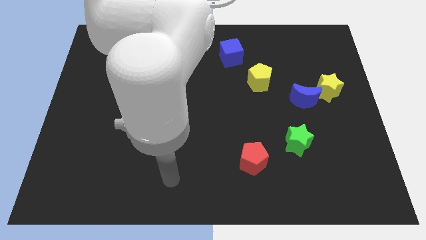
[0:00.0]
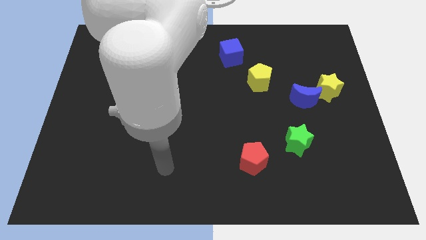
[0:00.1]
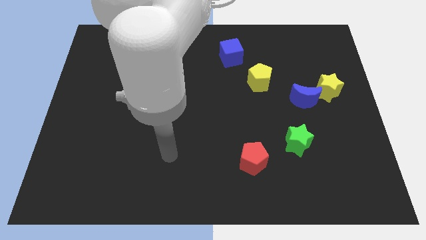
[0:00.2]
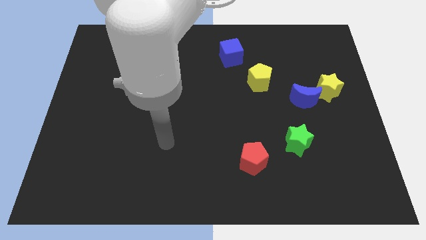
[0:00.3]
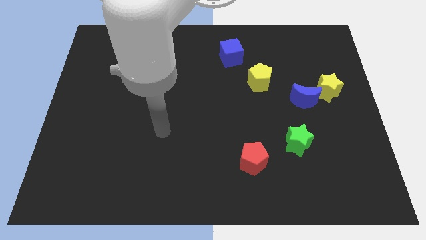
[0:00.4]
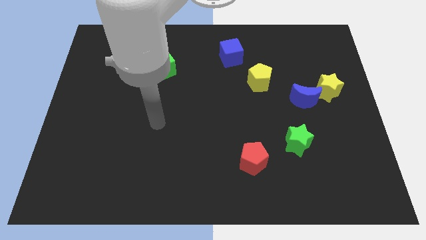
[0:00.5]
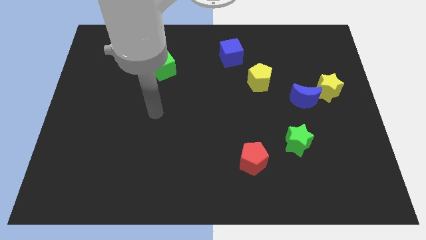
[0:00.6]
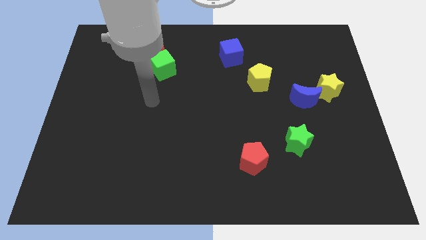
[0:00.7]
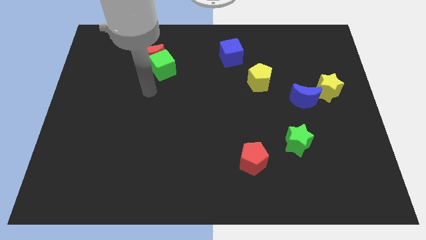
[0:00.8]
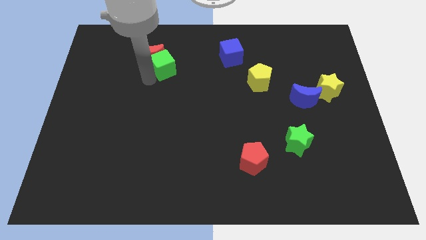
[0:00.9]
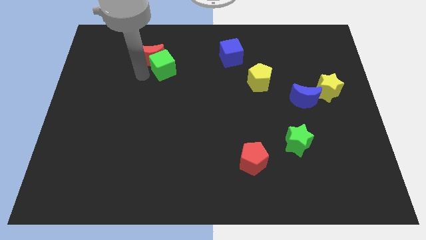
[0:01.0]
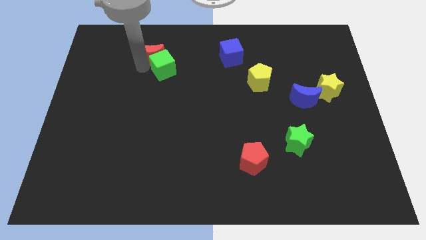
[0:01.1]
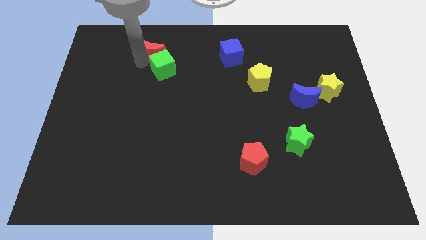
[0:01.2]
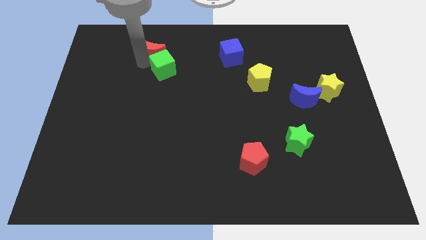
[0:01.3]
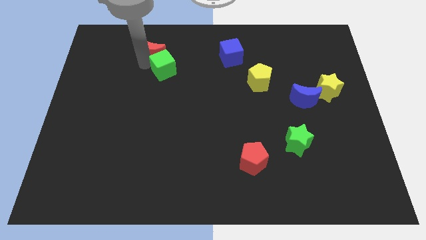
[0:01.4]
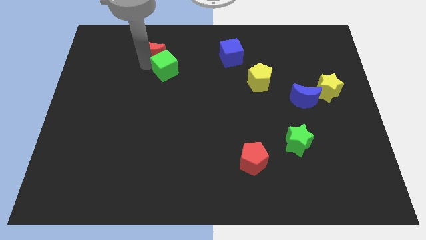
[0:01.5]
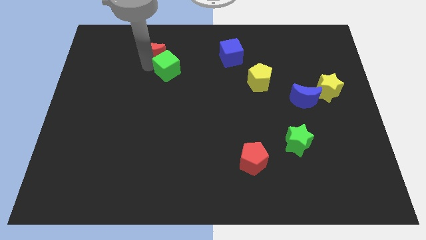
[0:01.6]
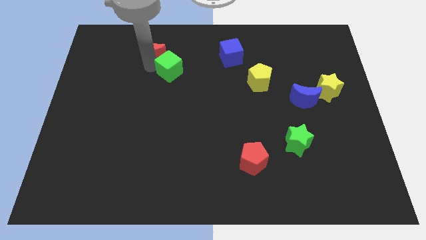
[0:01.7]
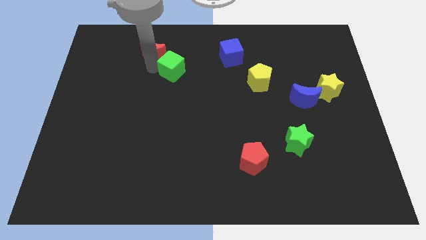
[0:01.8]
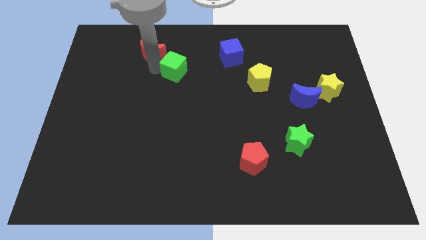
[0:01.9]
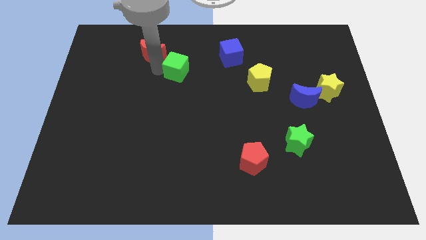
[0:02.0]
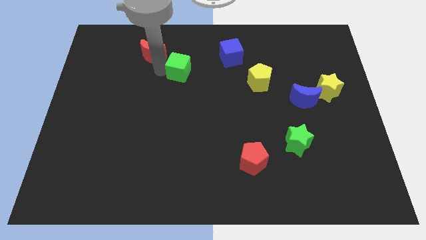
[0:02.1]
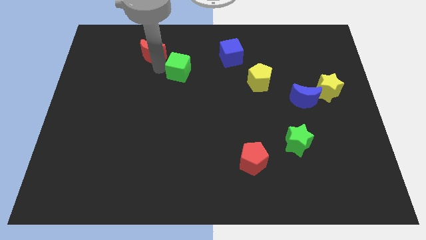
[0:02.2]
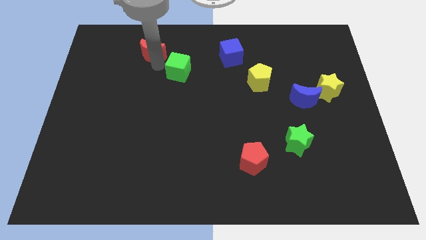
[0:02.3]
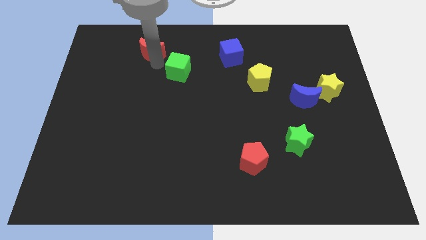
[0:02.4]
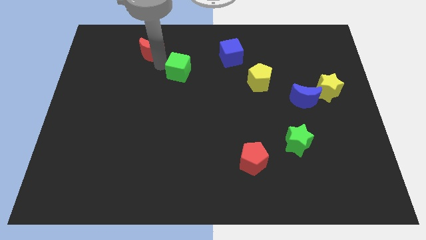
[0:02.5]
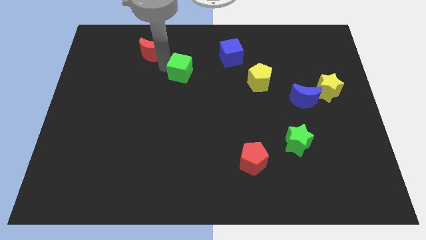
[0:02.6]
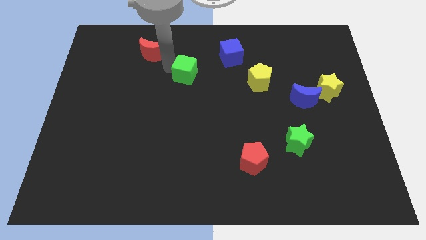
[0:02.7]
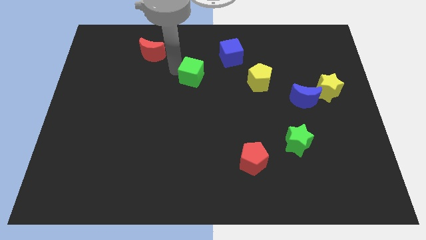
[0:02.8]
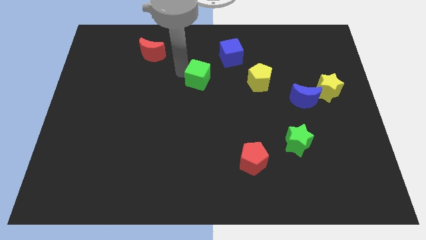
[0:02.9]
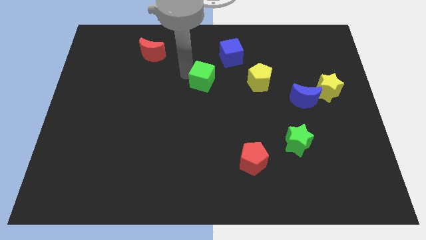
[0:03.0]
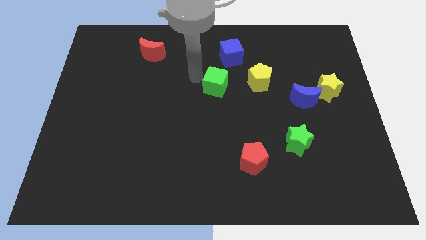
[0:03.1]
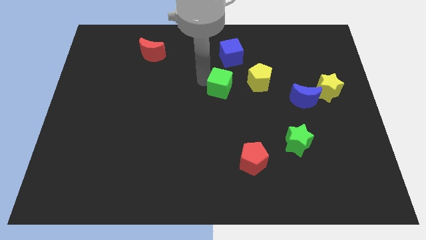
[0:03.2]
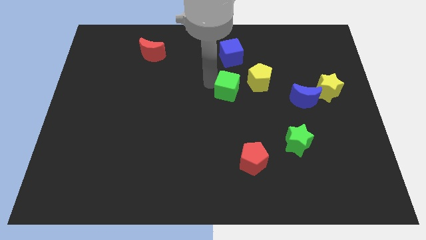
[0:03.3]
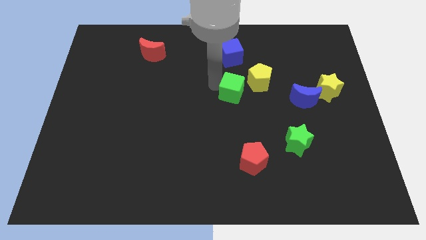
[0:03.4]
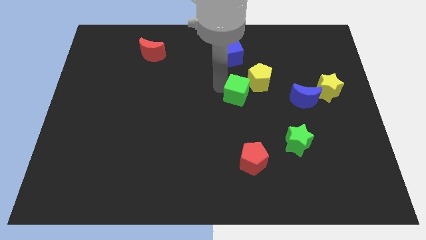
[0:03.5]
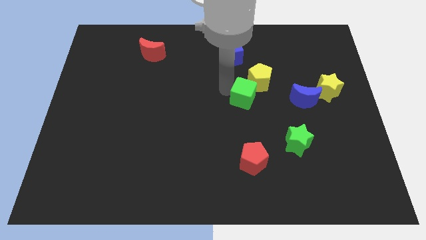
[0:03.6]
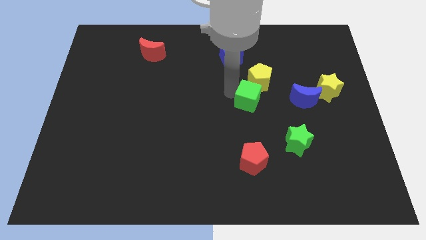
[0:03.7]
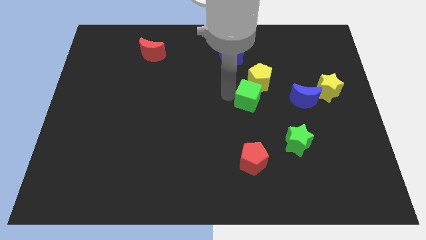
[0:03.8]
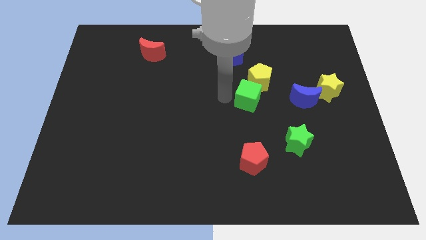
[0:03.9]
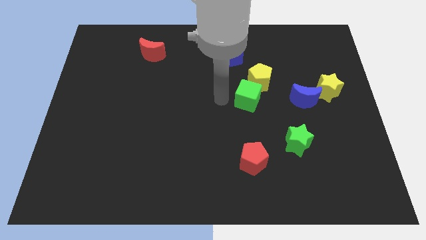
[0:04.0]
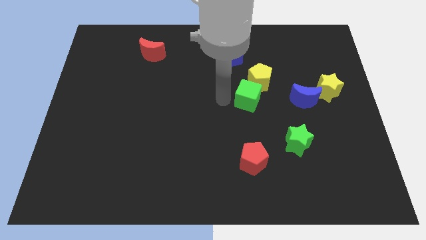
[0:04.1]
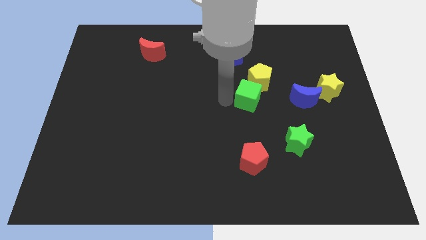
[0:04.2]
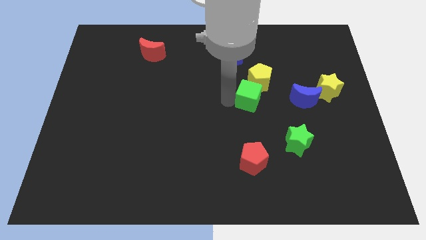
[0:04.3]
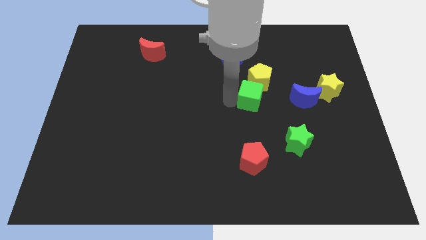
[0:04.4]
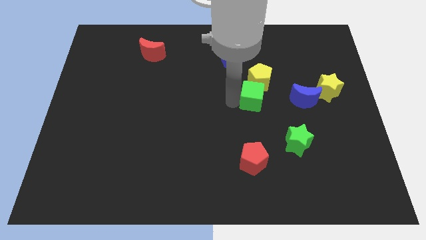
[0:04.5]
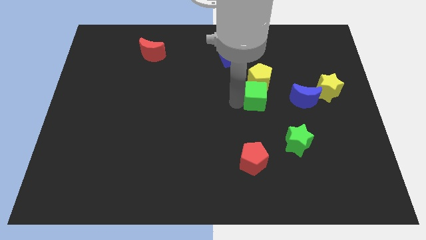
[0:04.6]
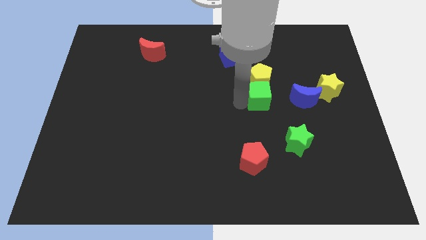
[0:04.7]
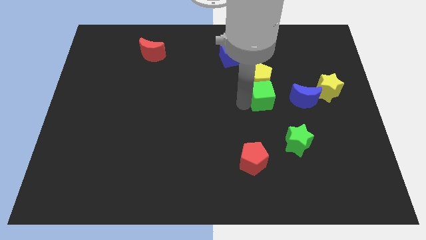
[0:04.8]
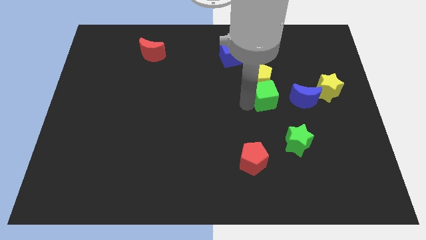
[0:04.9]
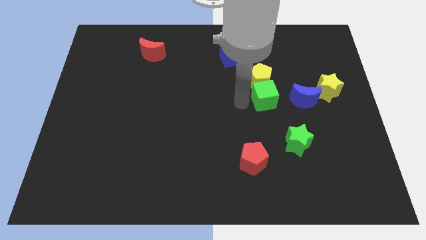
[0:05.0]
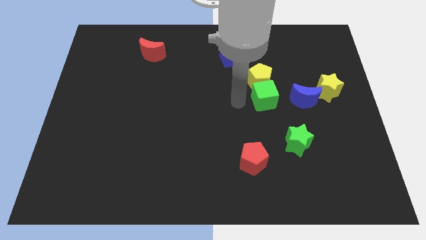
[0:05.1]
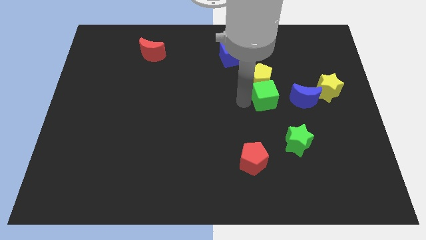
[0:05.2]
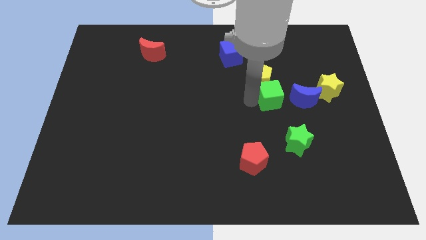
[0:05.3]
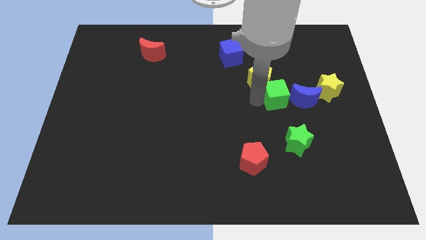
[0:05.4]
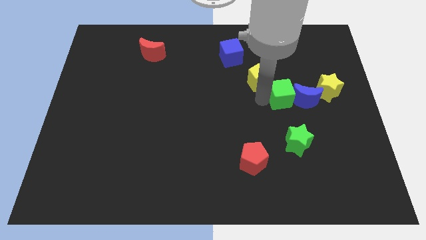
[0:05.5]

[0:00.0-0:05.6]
push the green cube to the blue moon

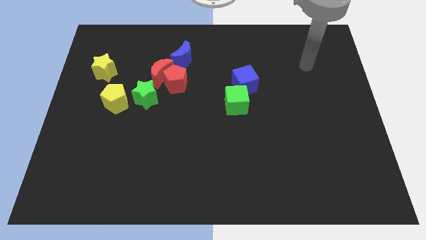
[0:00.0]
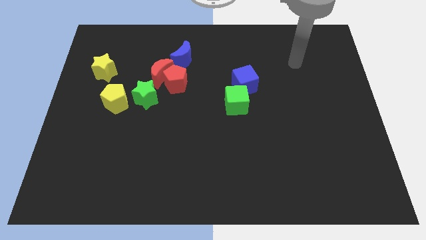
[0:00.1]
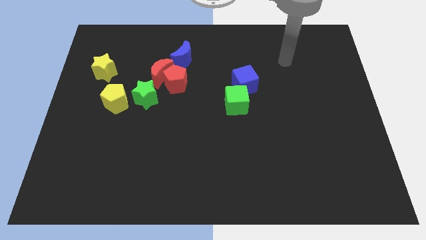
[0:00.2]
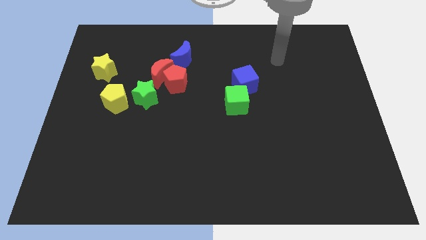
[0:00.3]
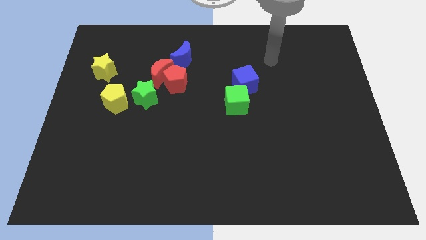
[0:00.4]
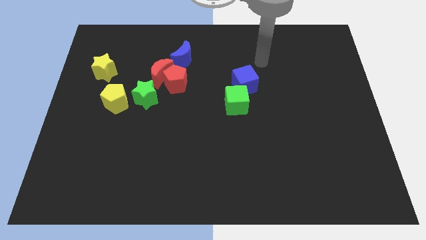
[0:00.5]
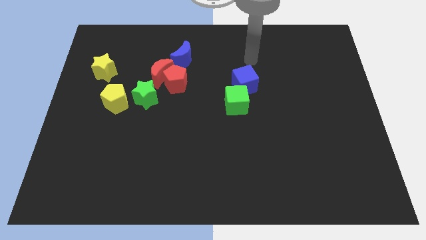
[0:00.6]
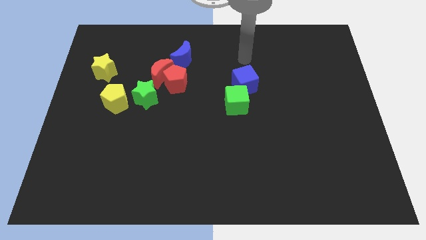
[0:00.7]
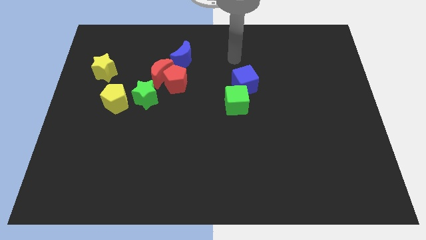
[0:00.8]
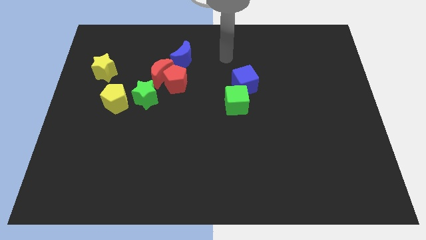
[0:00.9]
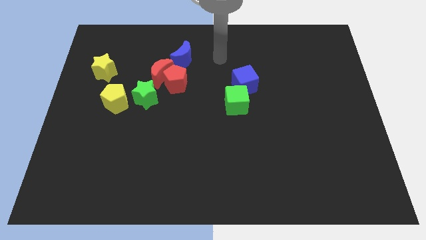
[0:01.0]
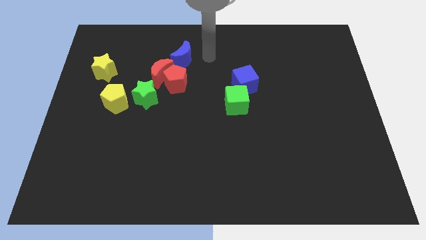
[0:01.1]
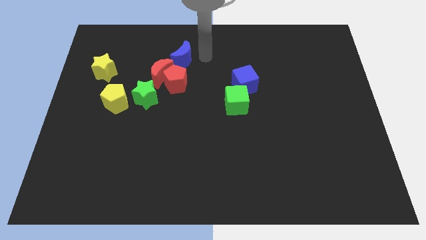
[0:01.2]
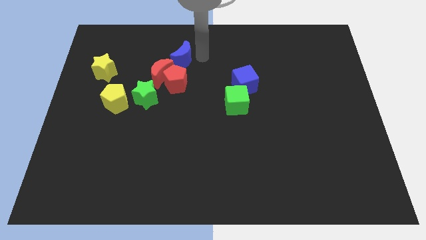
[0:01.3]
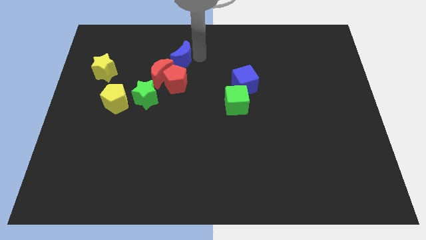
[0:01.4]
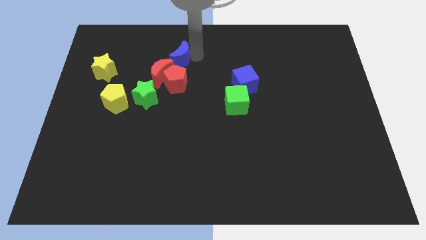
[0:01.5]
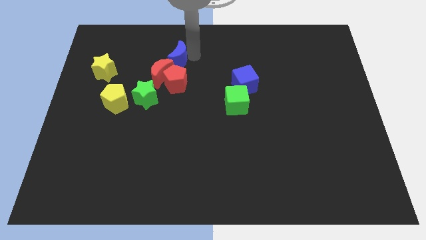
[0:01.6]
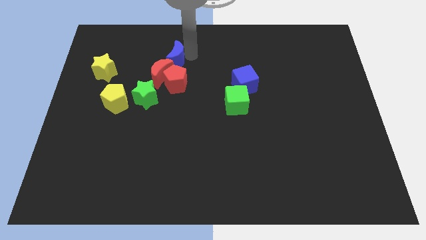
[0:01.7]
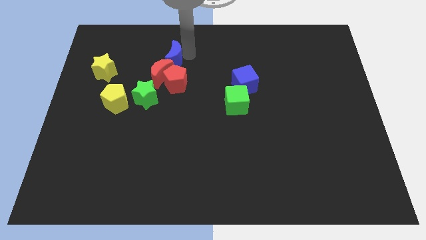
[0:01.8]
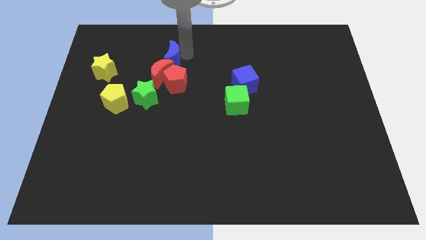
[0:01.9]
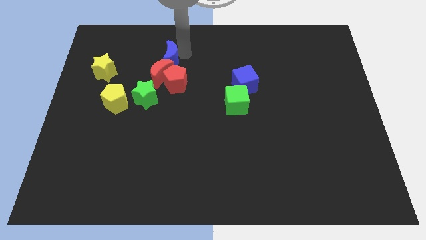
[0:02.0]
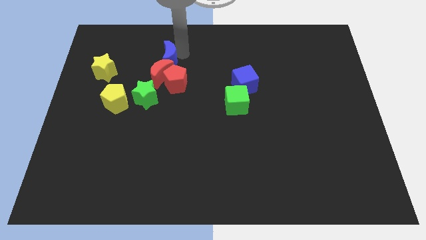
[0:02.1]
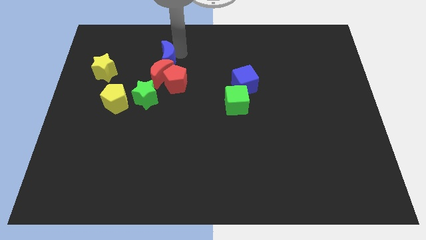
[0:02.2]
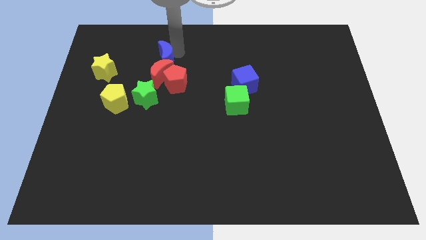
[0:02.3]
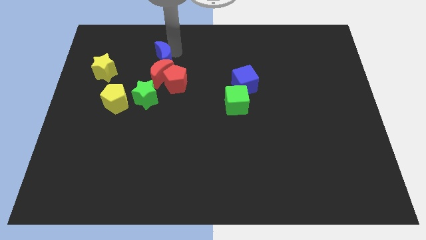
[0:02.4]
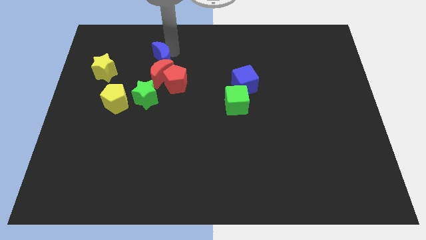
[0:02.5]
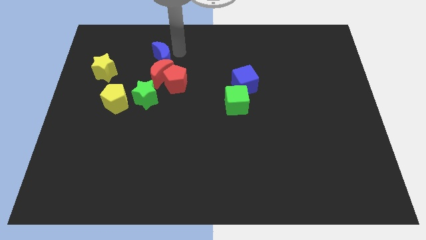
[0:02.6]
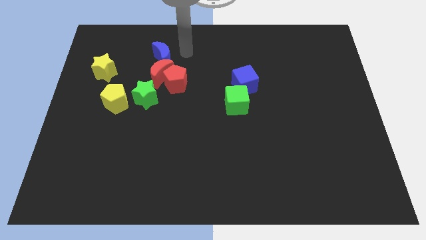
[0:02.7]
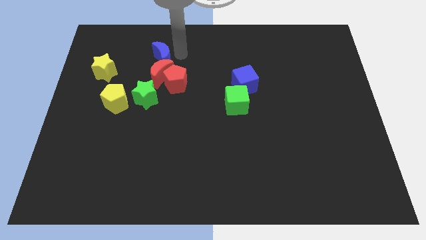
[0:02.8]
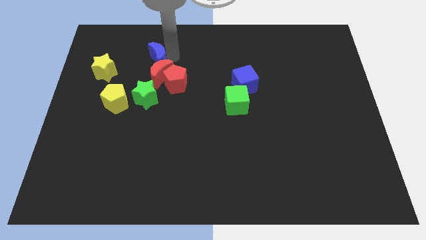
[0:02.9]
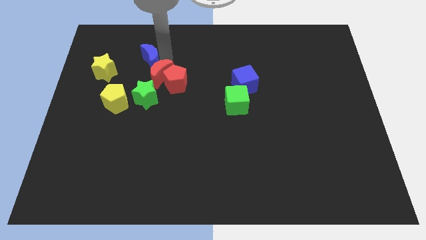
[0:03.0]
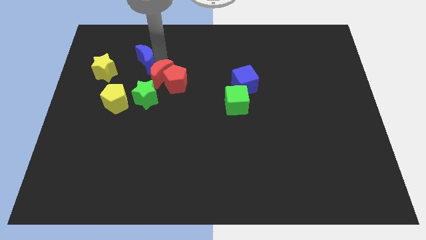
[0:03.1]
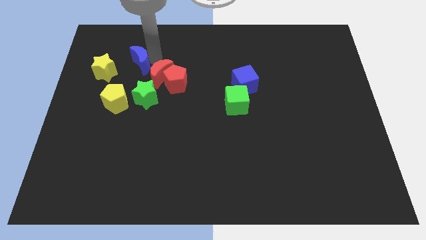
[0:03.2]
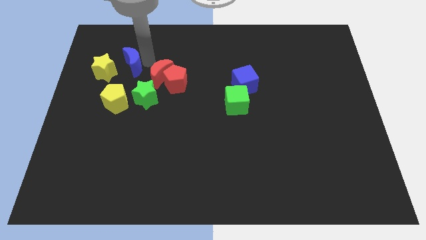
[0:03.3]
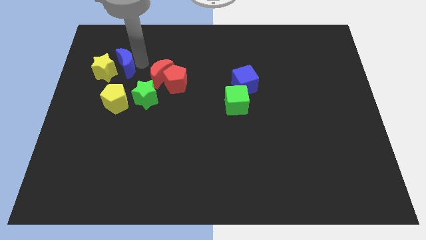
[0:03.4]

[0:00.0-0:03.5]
move the blue moon towards the yellow star
